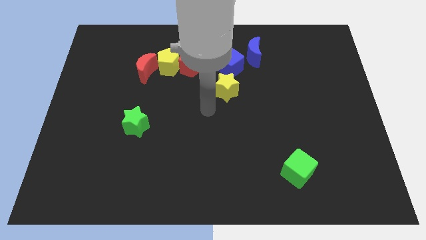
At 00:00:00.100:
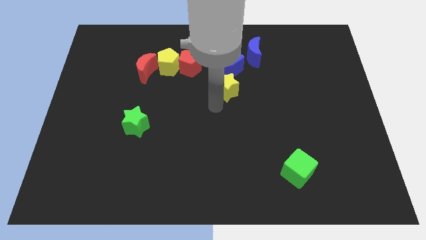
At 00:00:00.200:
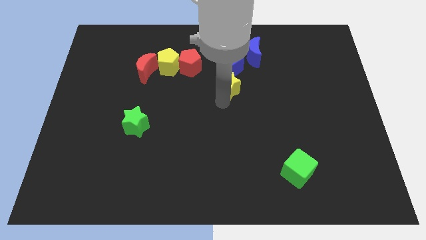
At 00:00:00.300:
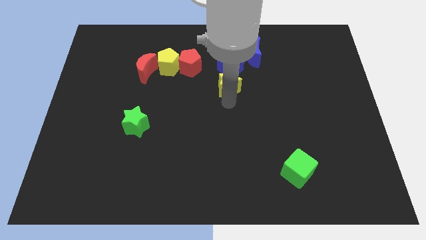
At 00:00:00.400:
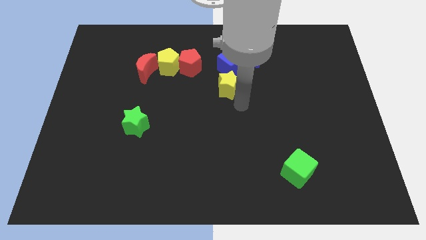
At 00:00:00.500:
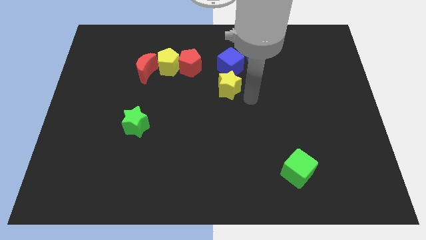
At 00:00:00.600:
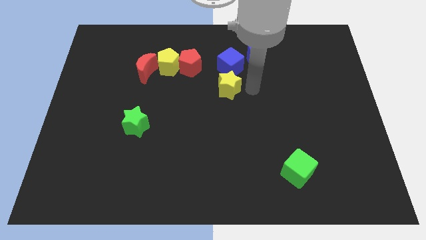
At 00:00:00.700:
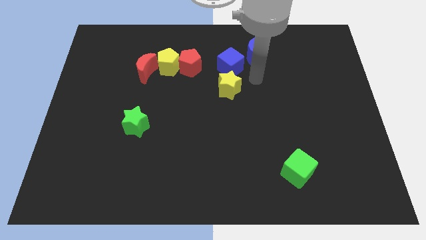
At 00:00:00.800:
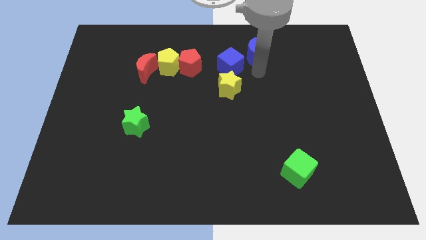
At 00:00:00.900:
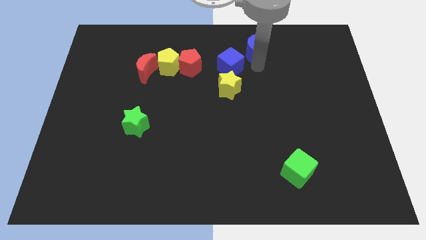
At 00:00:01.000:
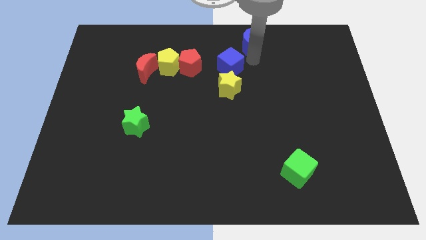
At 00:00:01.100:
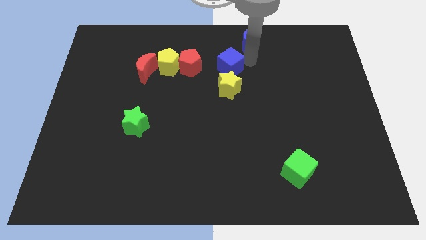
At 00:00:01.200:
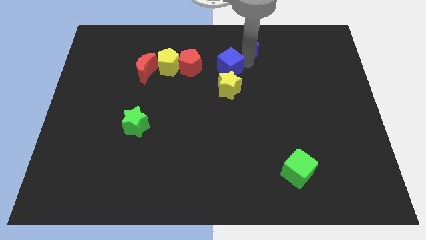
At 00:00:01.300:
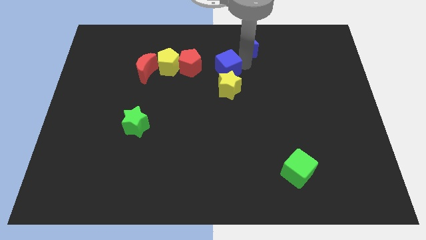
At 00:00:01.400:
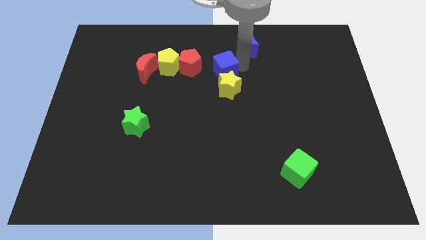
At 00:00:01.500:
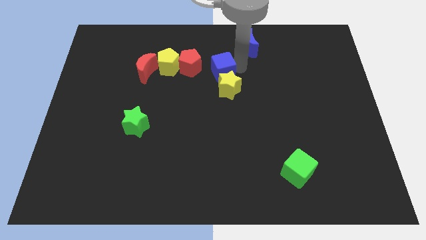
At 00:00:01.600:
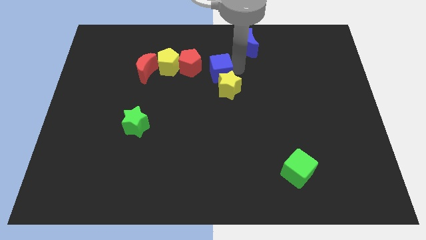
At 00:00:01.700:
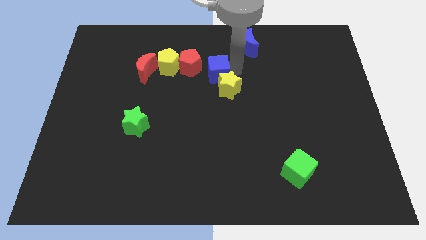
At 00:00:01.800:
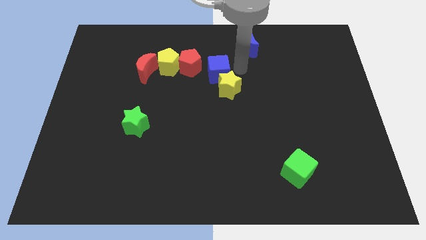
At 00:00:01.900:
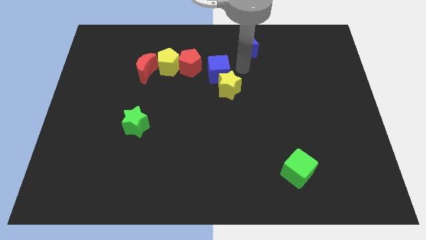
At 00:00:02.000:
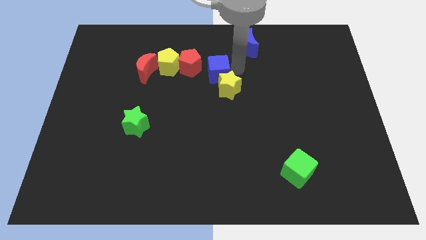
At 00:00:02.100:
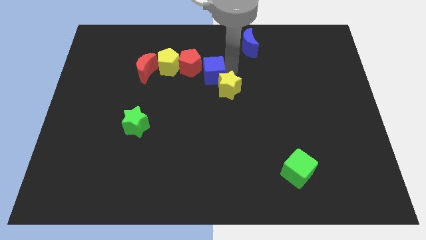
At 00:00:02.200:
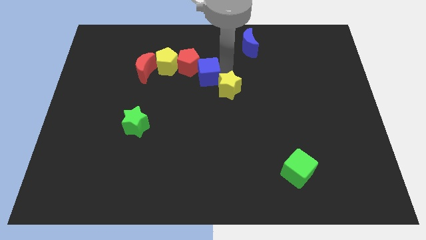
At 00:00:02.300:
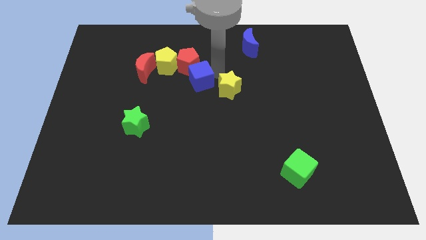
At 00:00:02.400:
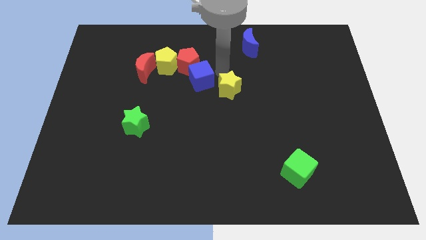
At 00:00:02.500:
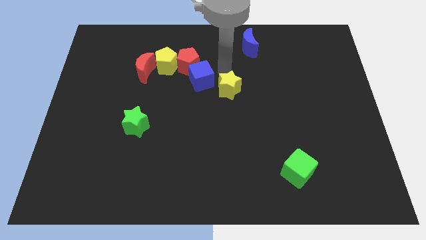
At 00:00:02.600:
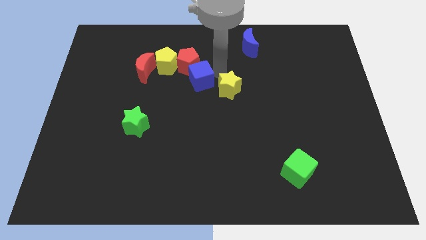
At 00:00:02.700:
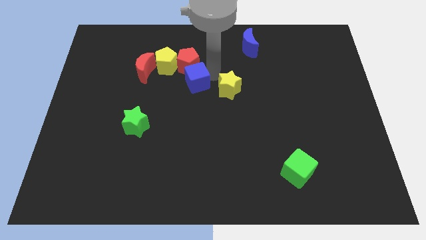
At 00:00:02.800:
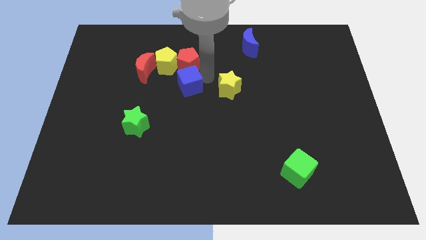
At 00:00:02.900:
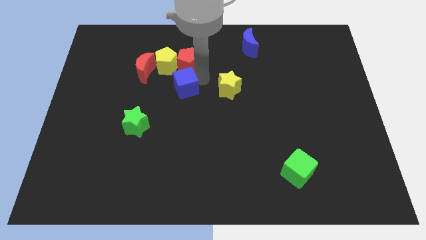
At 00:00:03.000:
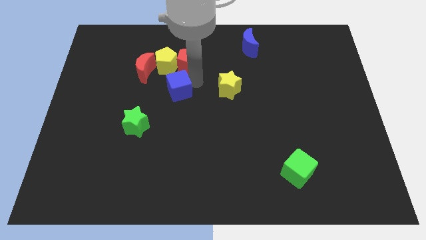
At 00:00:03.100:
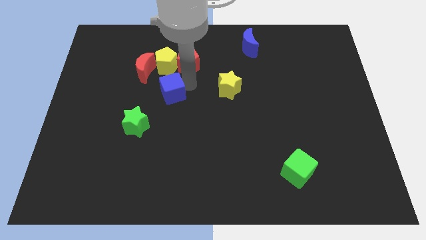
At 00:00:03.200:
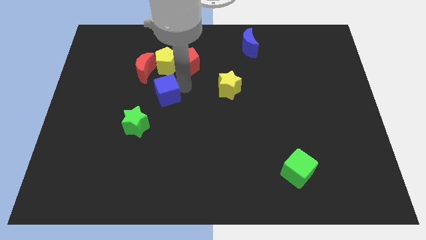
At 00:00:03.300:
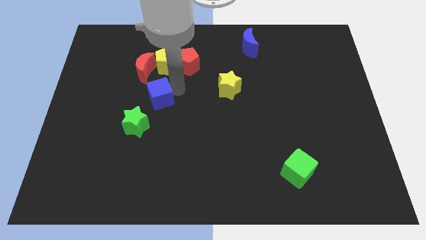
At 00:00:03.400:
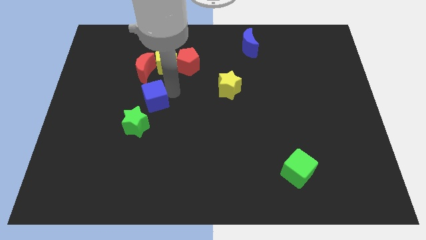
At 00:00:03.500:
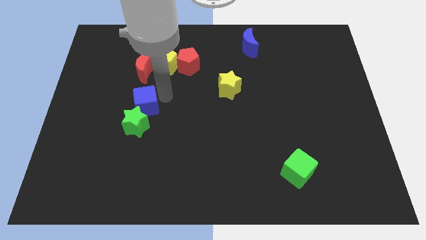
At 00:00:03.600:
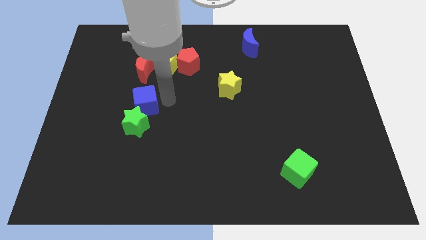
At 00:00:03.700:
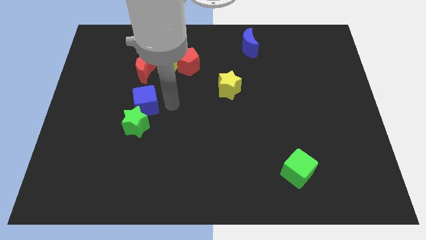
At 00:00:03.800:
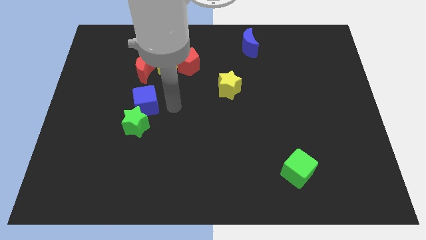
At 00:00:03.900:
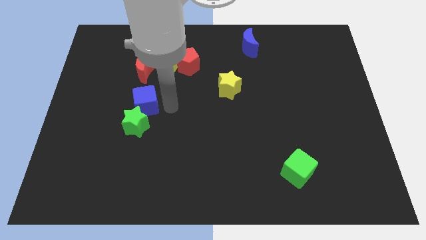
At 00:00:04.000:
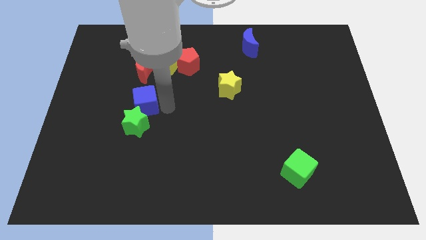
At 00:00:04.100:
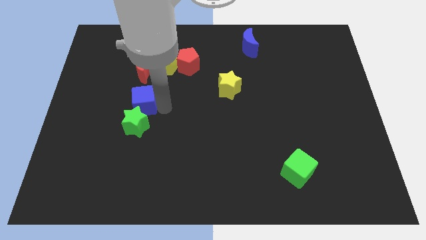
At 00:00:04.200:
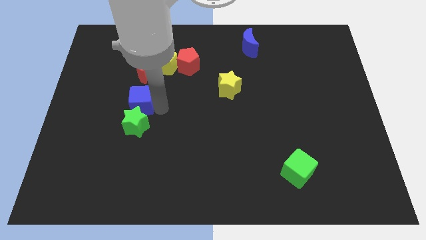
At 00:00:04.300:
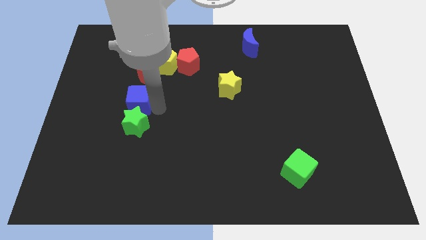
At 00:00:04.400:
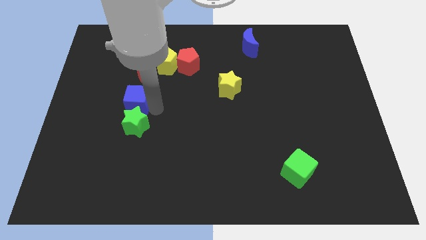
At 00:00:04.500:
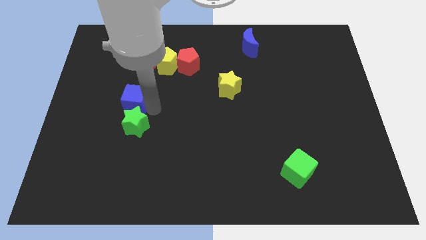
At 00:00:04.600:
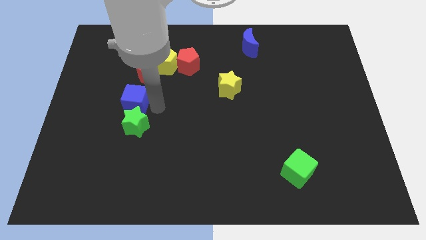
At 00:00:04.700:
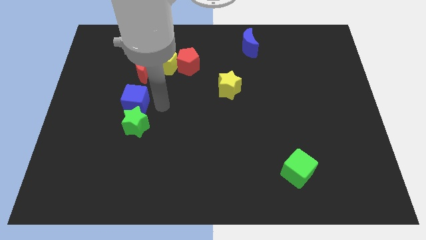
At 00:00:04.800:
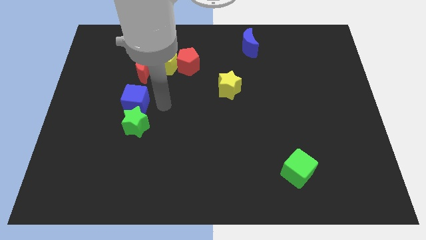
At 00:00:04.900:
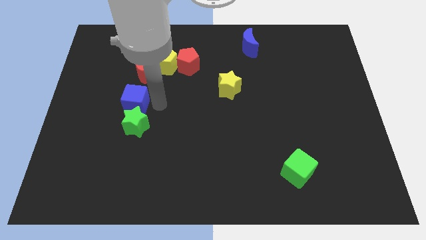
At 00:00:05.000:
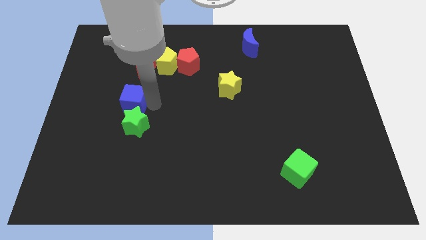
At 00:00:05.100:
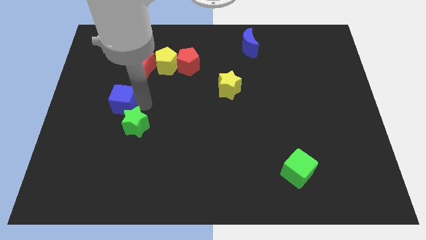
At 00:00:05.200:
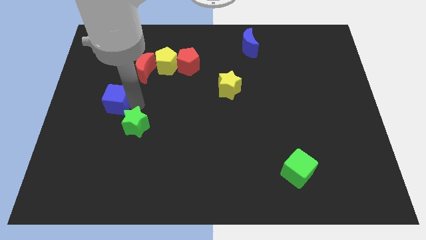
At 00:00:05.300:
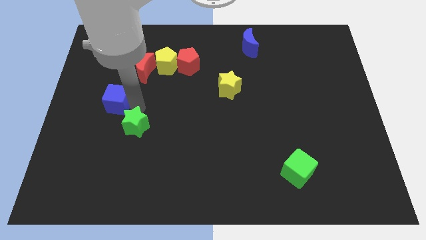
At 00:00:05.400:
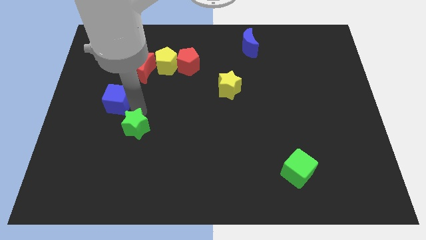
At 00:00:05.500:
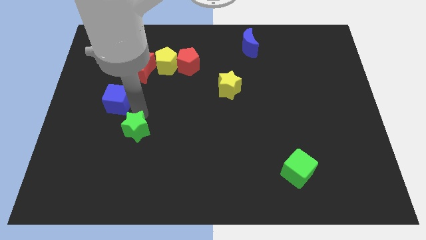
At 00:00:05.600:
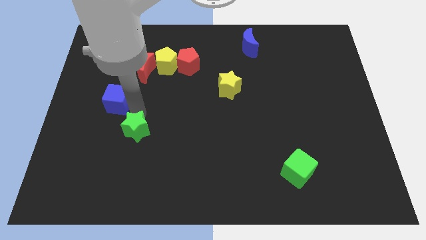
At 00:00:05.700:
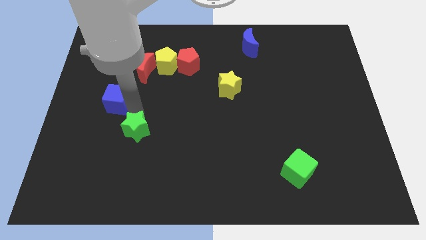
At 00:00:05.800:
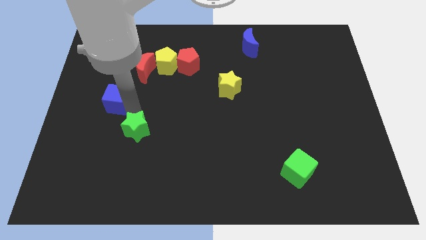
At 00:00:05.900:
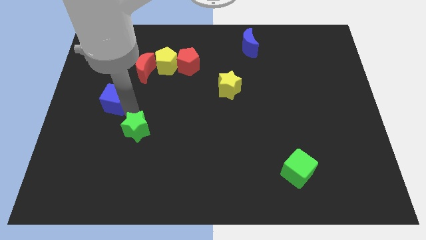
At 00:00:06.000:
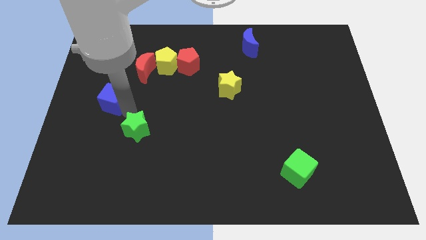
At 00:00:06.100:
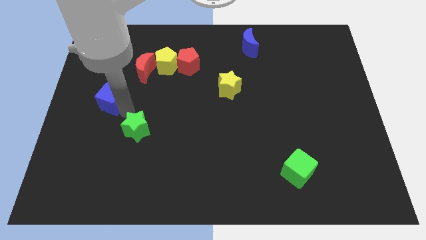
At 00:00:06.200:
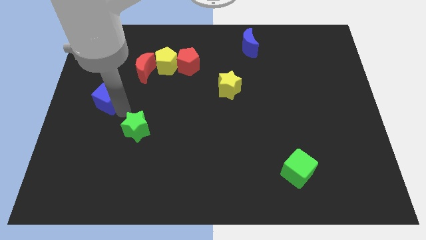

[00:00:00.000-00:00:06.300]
slide the blue cube to the left side of the board
